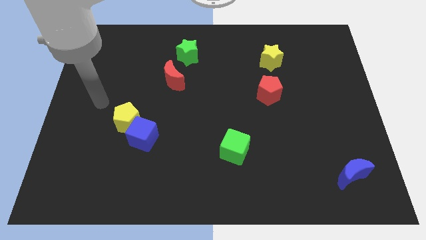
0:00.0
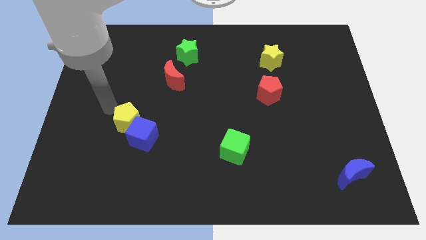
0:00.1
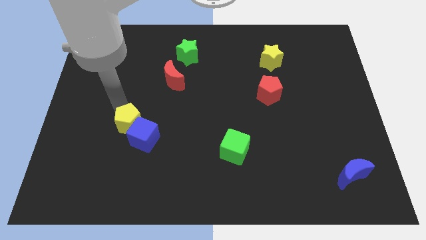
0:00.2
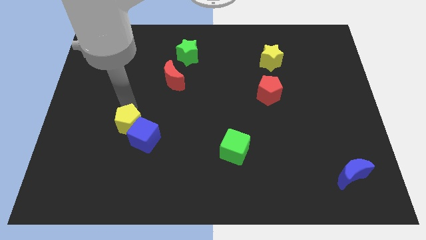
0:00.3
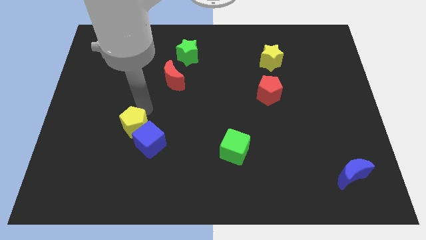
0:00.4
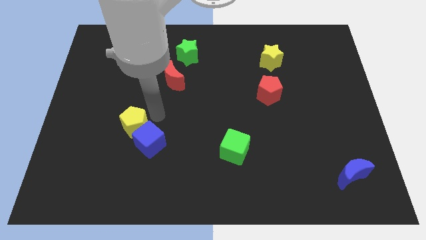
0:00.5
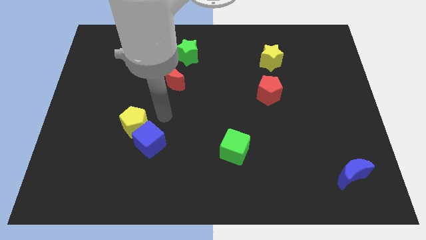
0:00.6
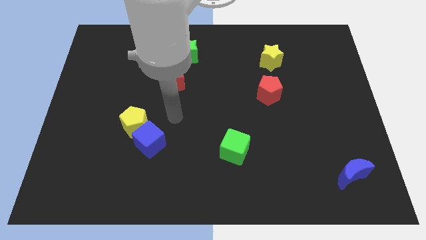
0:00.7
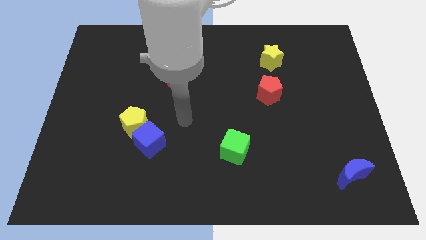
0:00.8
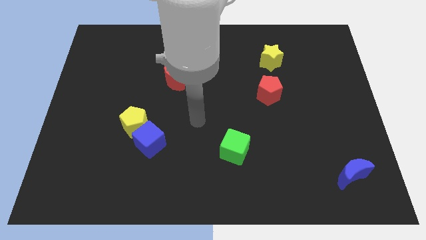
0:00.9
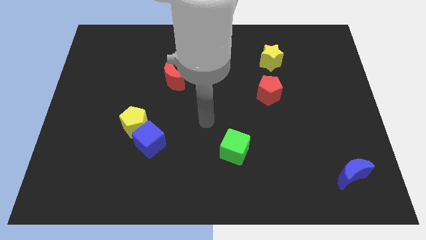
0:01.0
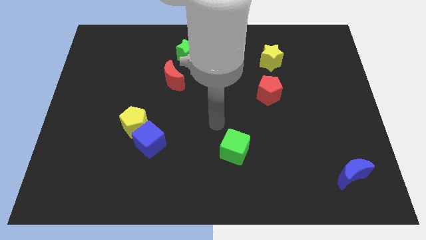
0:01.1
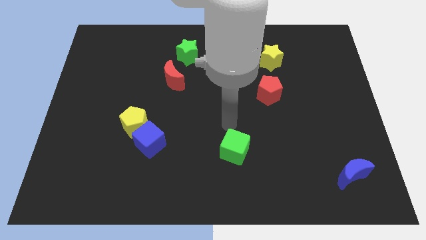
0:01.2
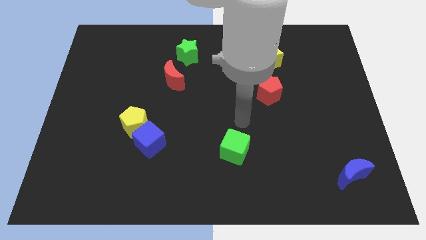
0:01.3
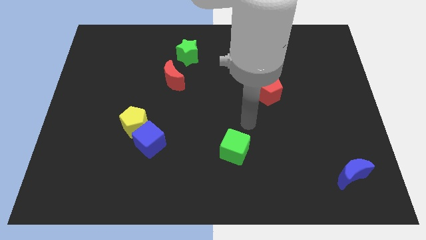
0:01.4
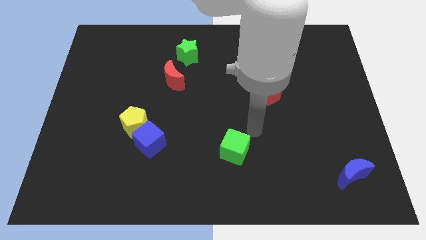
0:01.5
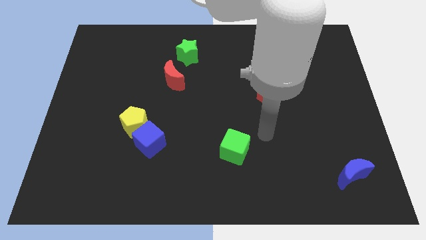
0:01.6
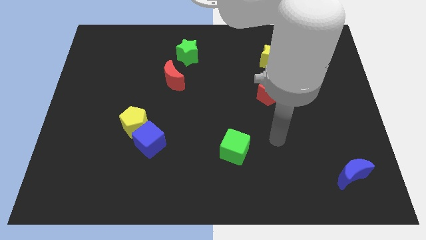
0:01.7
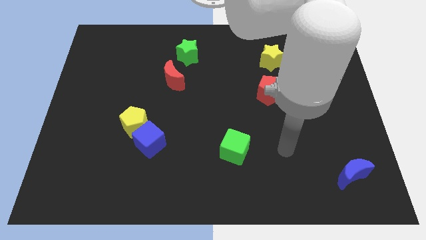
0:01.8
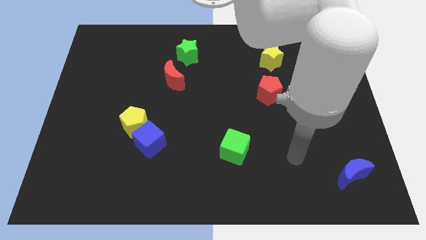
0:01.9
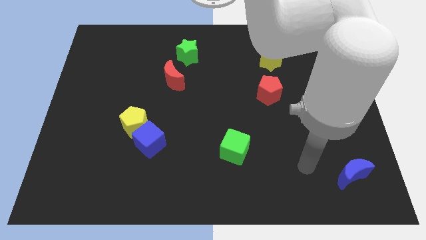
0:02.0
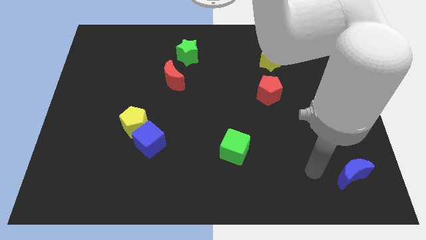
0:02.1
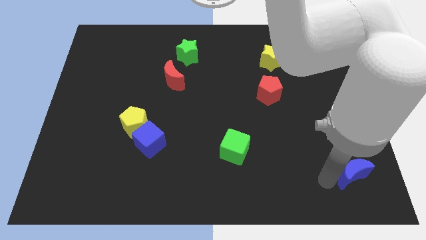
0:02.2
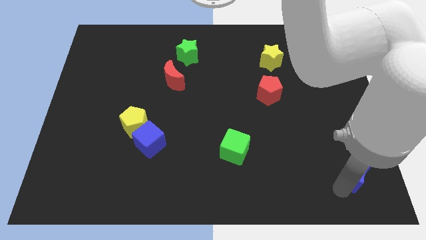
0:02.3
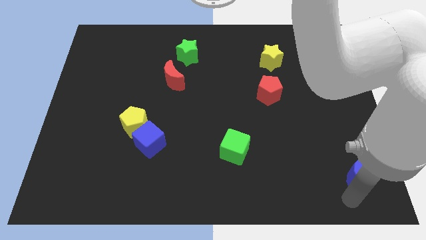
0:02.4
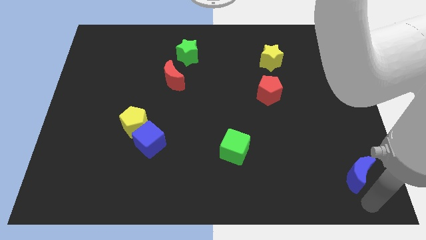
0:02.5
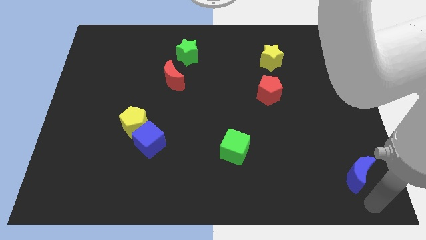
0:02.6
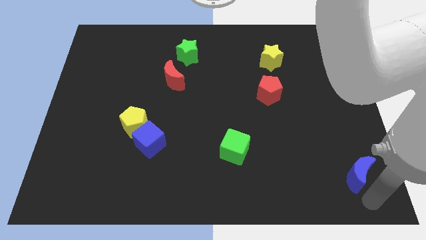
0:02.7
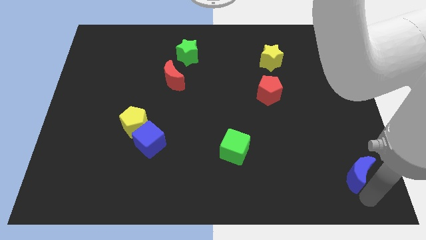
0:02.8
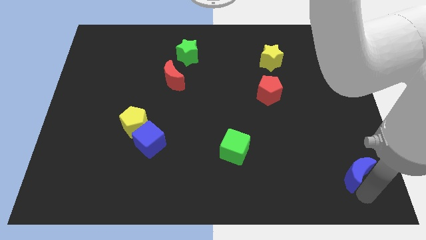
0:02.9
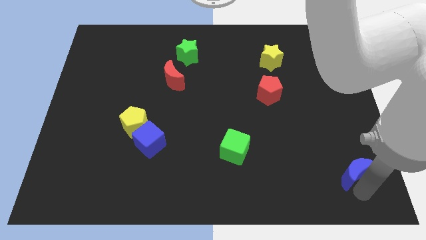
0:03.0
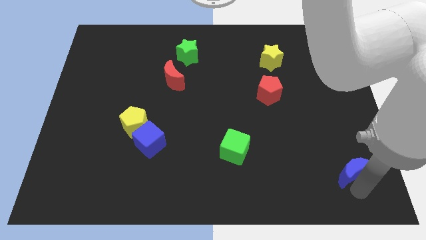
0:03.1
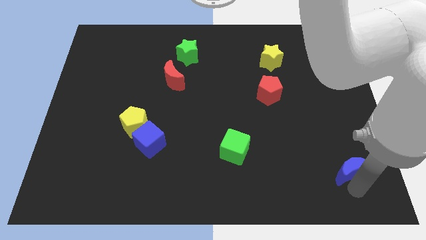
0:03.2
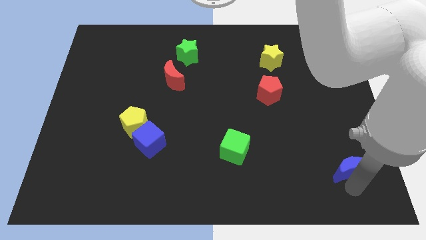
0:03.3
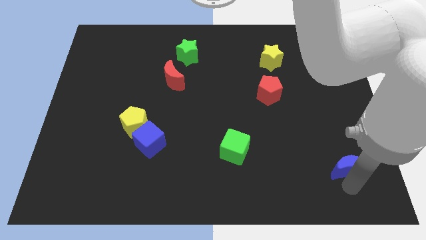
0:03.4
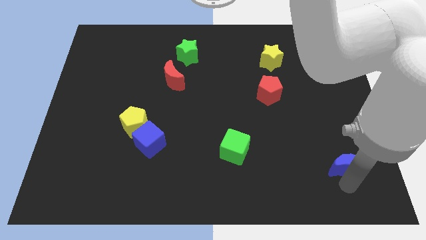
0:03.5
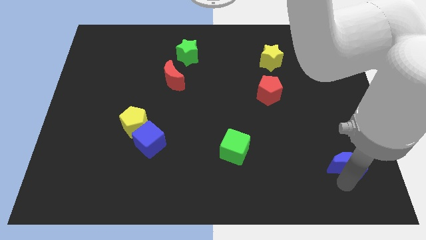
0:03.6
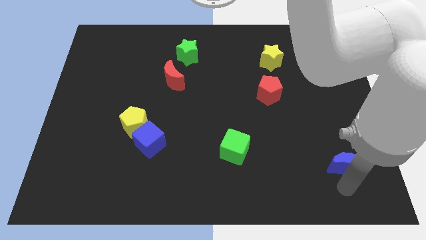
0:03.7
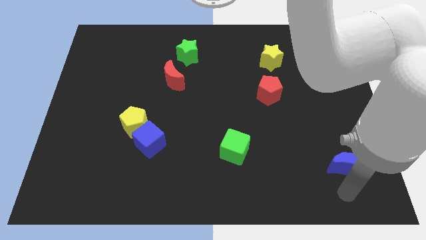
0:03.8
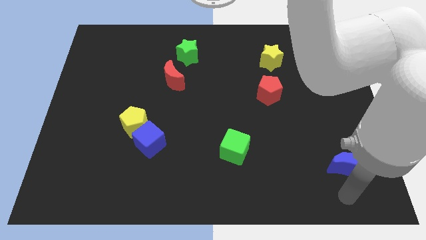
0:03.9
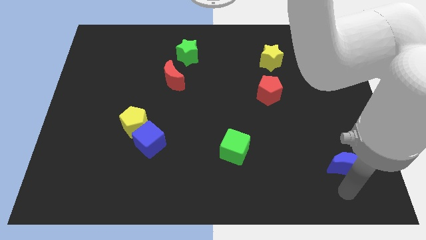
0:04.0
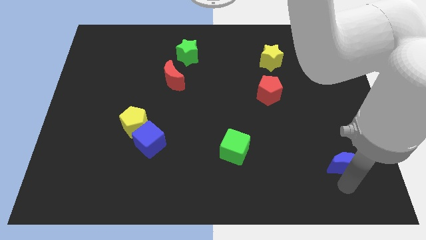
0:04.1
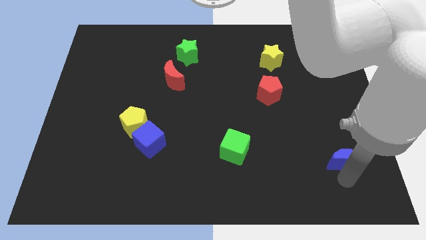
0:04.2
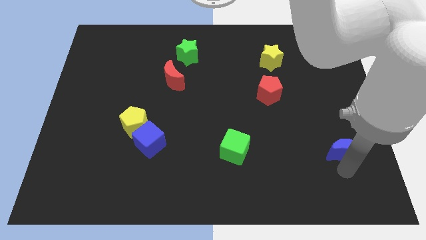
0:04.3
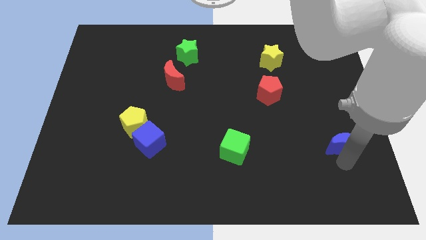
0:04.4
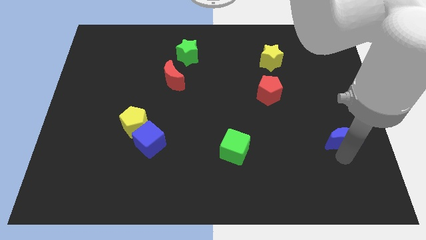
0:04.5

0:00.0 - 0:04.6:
slide the blue moon a little up

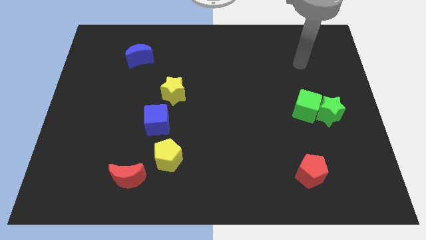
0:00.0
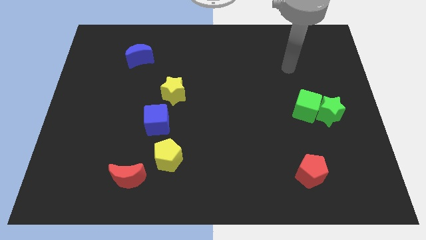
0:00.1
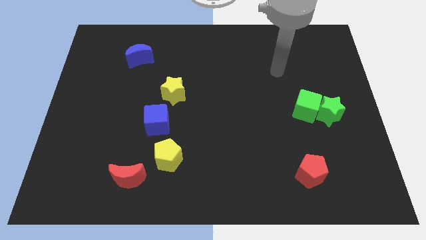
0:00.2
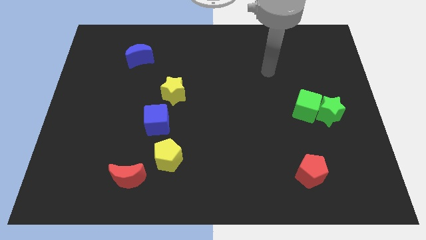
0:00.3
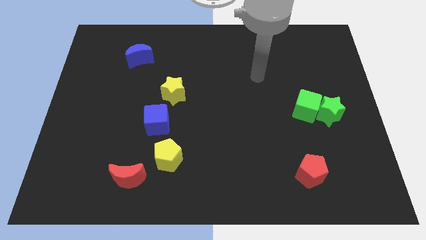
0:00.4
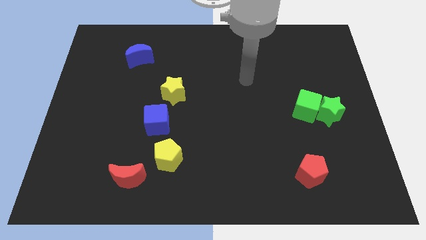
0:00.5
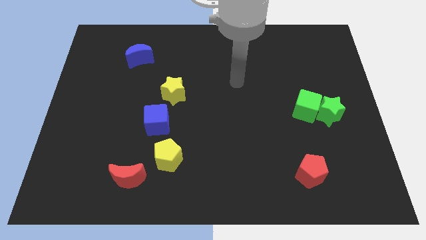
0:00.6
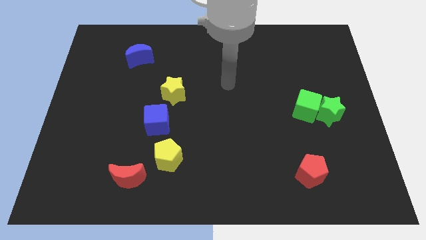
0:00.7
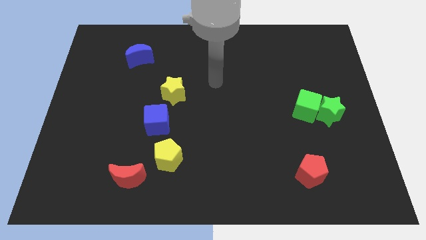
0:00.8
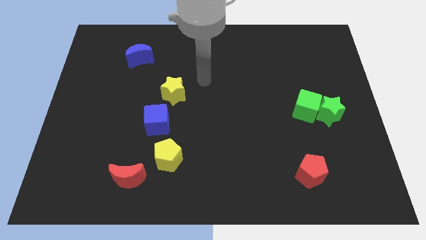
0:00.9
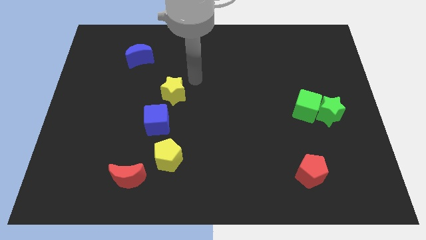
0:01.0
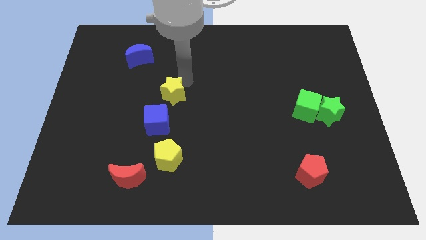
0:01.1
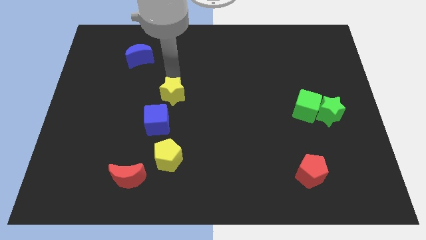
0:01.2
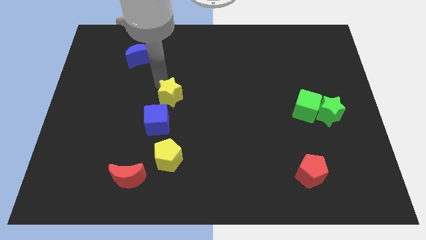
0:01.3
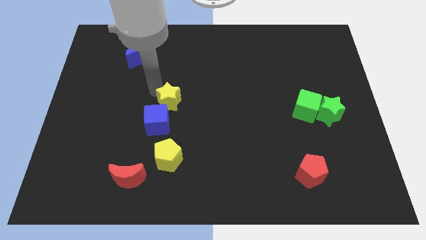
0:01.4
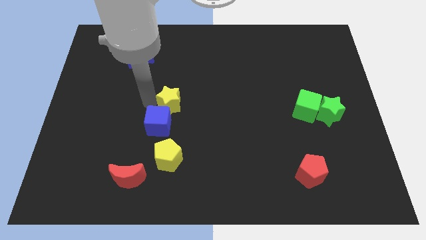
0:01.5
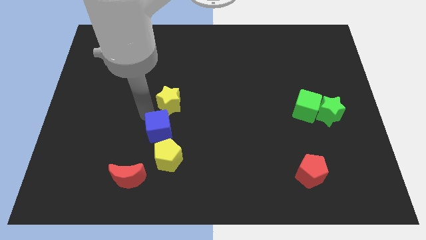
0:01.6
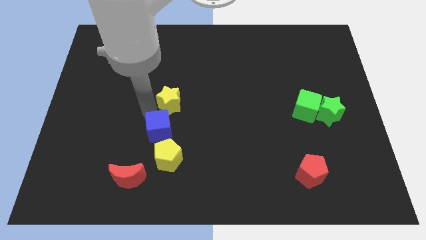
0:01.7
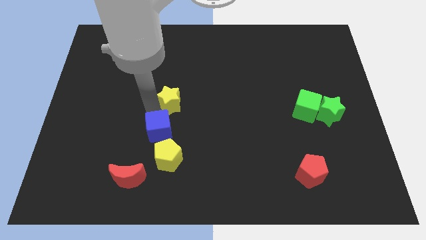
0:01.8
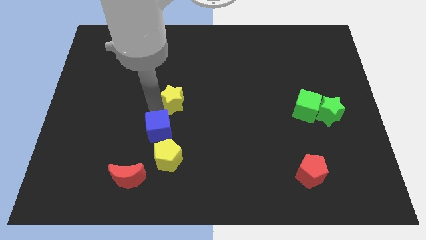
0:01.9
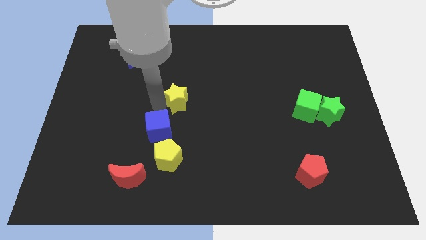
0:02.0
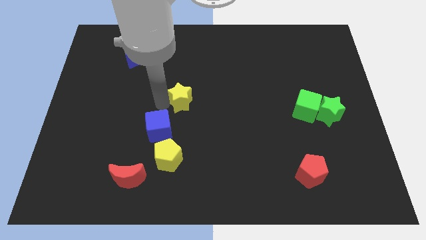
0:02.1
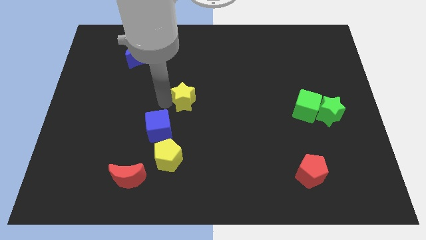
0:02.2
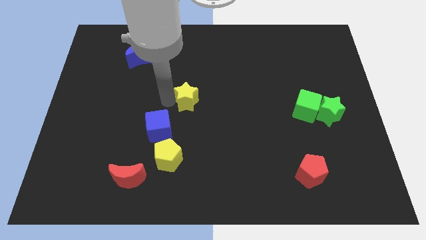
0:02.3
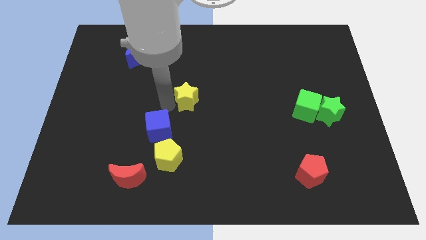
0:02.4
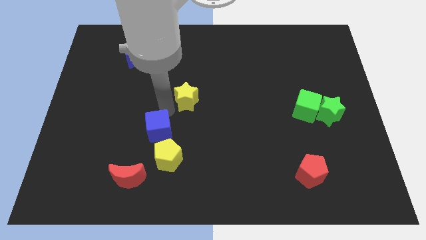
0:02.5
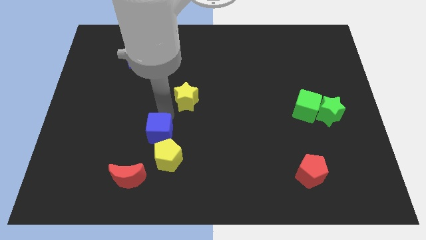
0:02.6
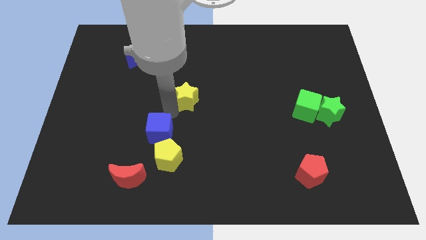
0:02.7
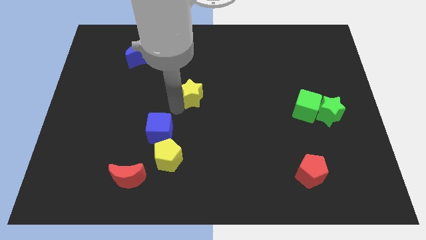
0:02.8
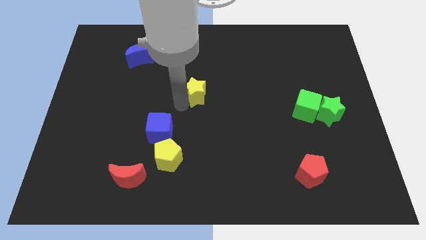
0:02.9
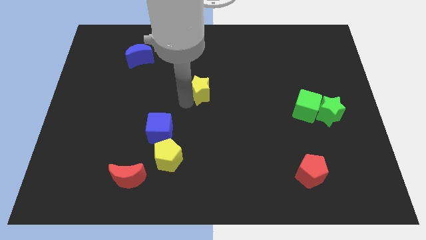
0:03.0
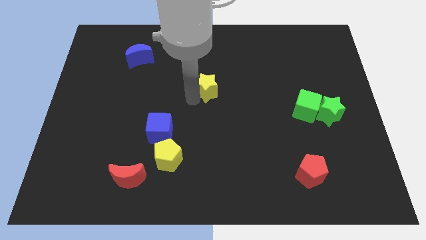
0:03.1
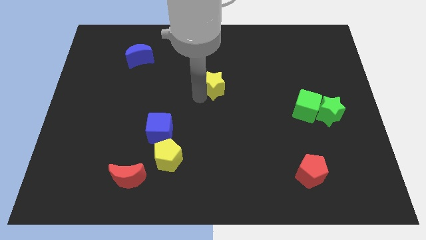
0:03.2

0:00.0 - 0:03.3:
slightly move the yellow star upwards and right diagonally

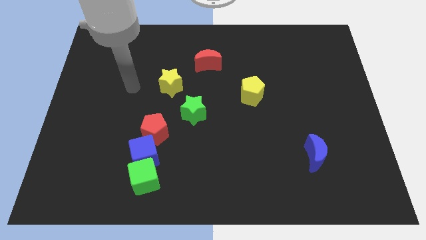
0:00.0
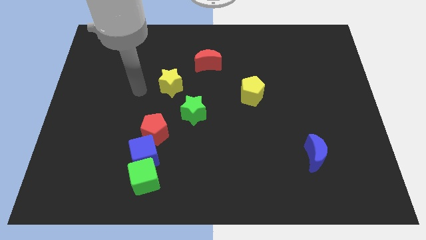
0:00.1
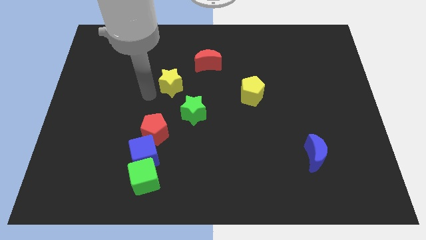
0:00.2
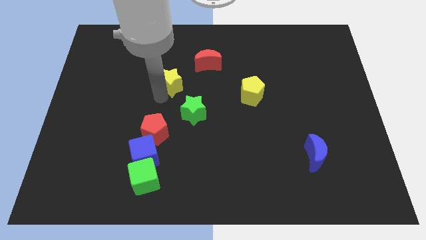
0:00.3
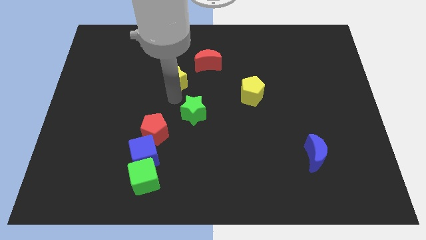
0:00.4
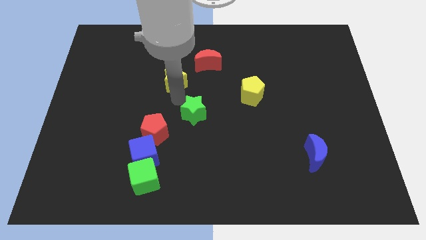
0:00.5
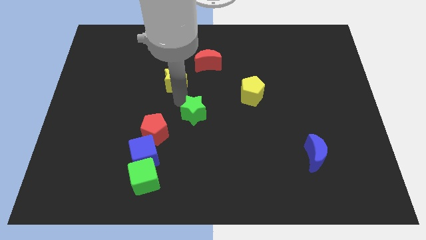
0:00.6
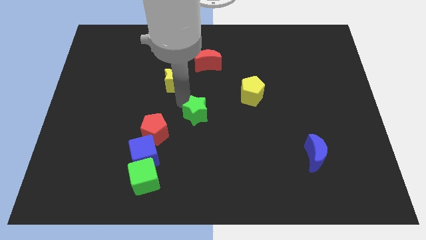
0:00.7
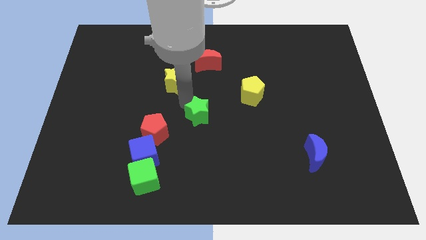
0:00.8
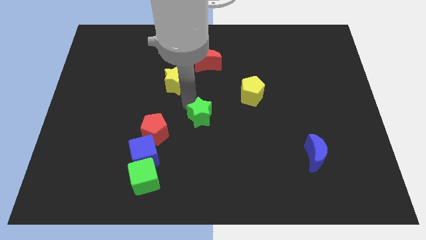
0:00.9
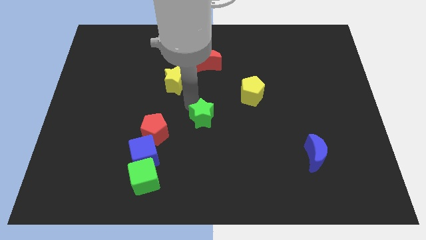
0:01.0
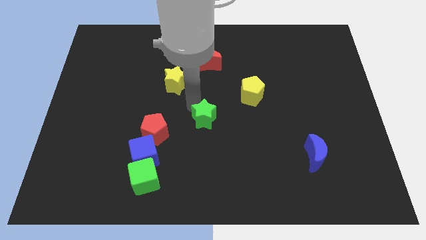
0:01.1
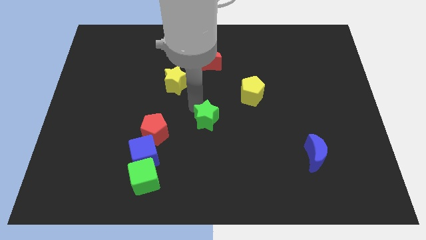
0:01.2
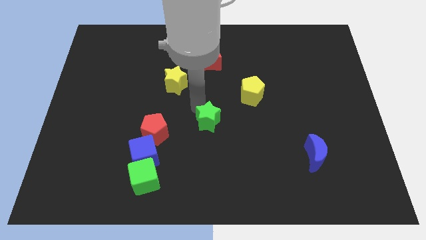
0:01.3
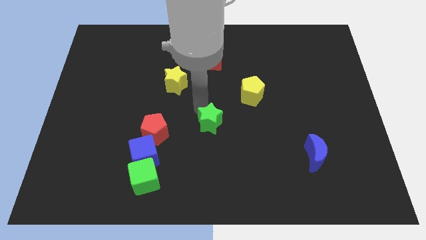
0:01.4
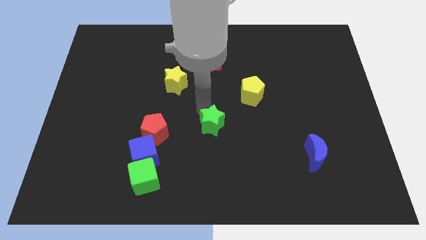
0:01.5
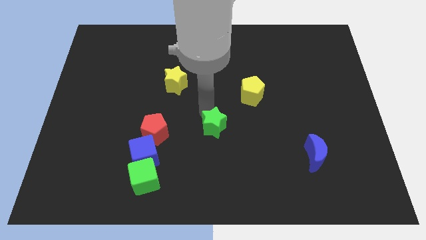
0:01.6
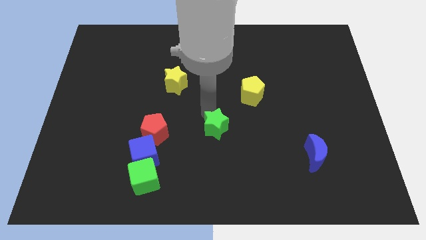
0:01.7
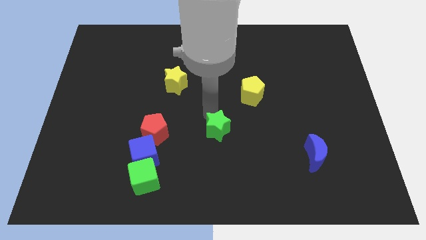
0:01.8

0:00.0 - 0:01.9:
slide the green star a little diagonally downwards and right
